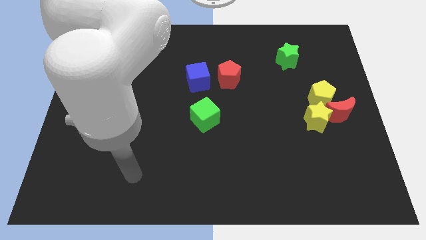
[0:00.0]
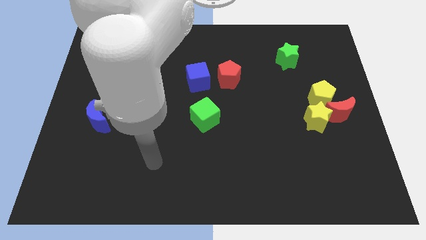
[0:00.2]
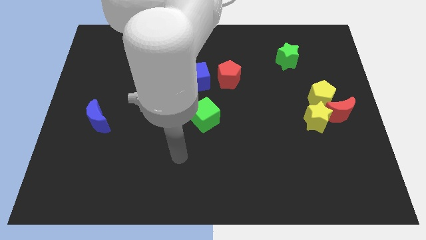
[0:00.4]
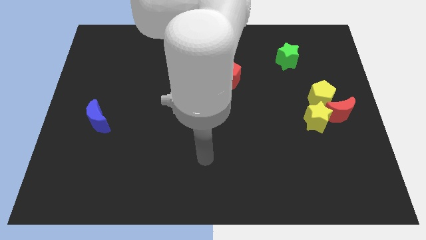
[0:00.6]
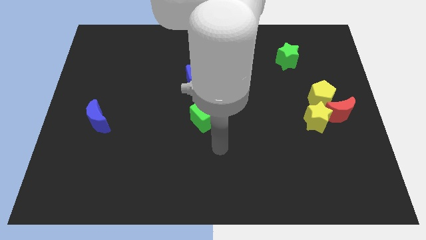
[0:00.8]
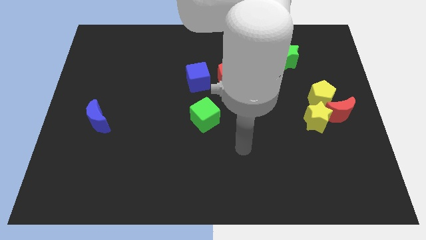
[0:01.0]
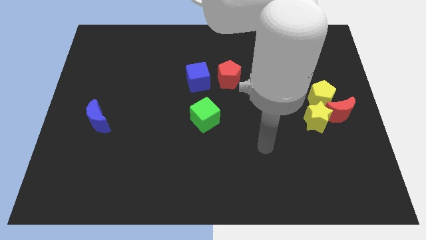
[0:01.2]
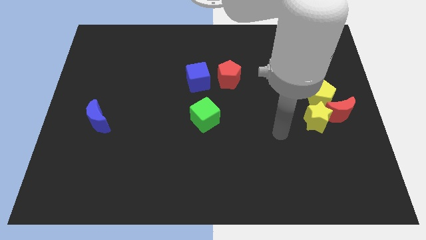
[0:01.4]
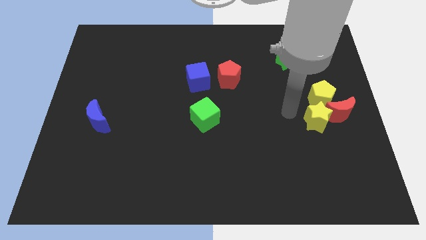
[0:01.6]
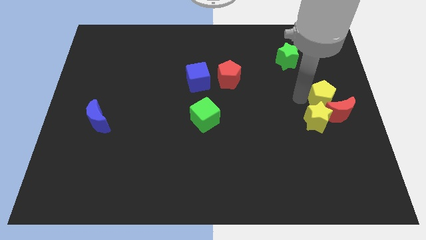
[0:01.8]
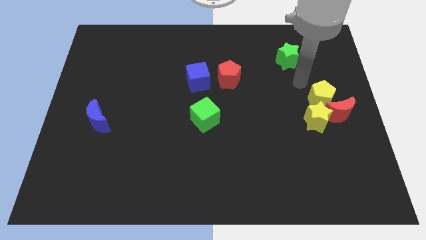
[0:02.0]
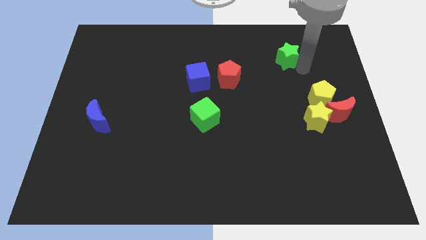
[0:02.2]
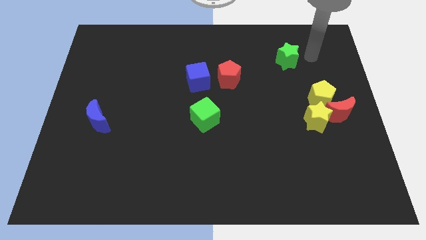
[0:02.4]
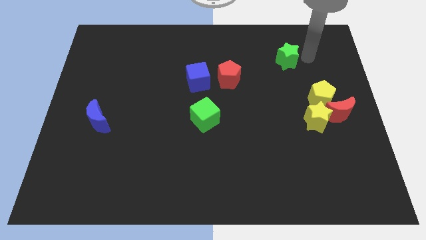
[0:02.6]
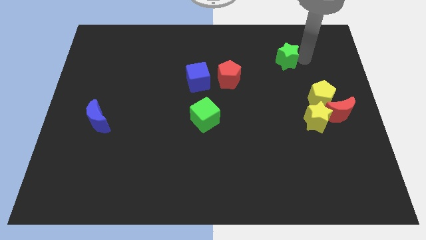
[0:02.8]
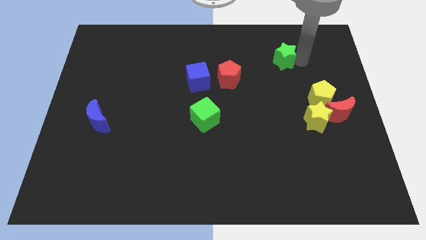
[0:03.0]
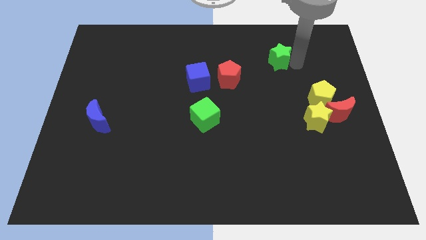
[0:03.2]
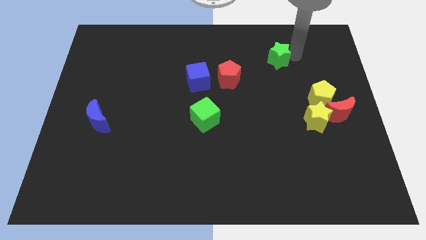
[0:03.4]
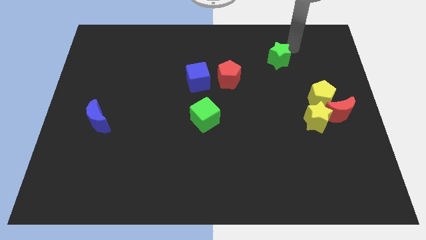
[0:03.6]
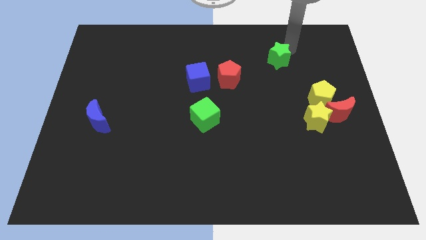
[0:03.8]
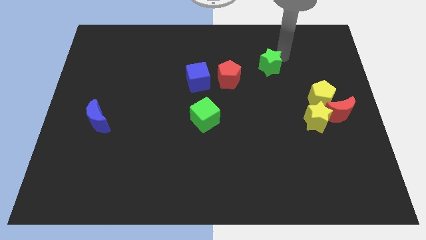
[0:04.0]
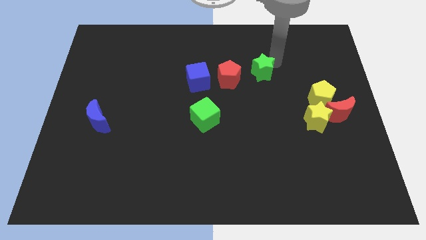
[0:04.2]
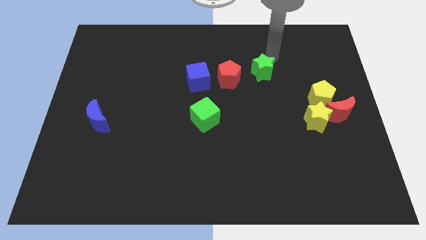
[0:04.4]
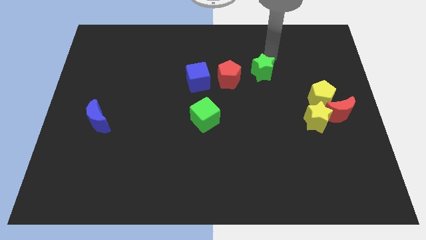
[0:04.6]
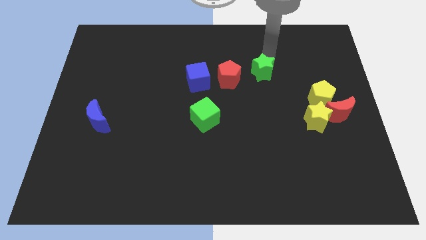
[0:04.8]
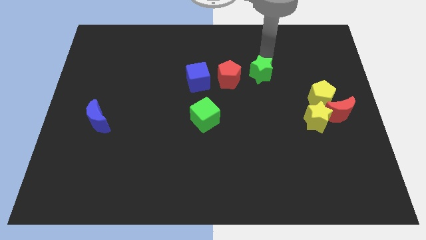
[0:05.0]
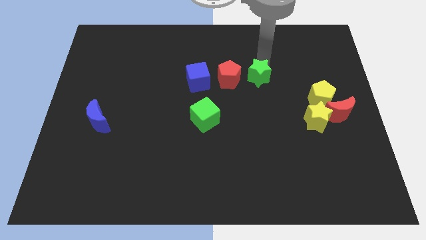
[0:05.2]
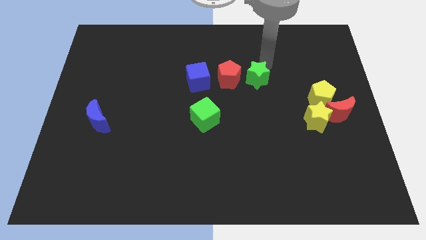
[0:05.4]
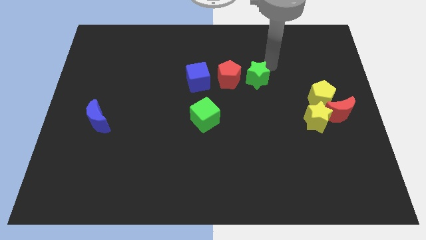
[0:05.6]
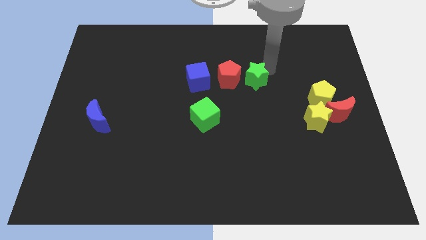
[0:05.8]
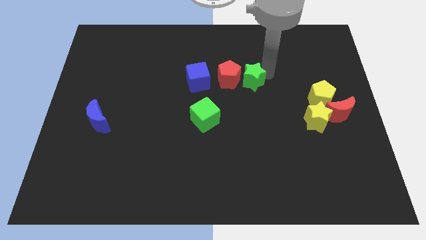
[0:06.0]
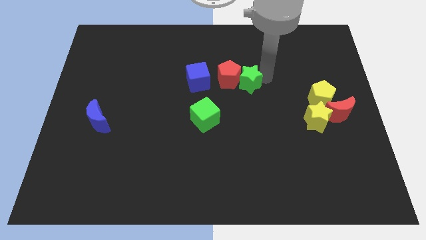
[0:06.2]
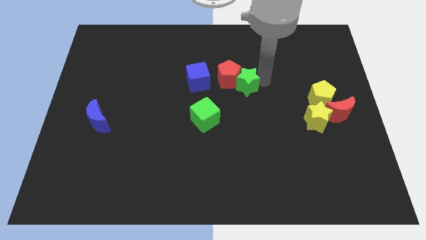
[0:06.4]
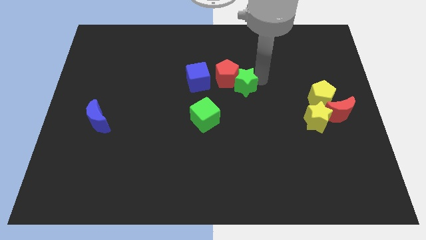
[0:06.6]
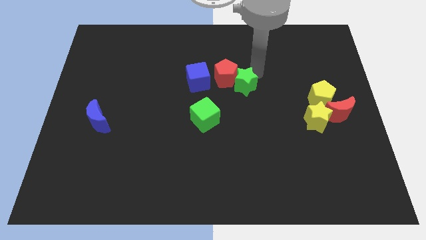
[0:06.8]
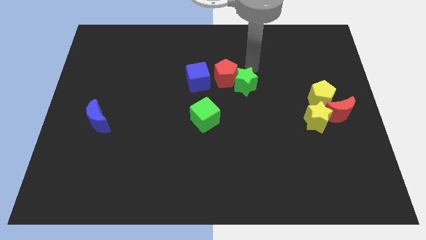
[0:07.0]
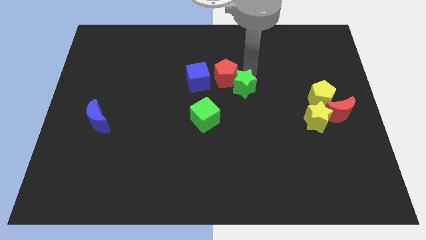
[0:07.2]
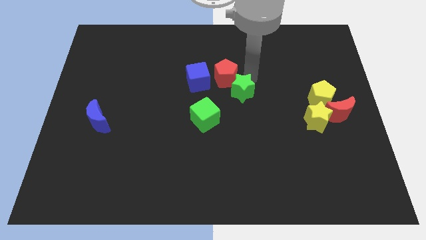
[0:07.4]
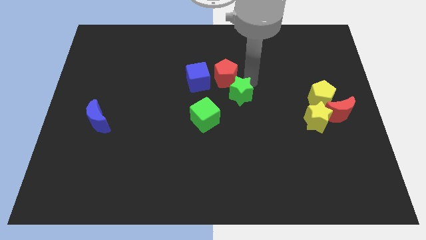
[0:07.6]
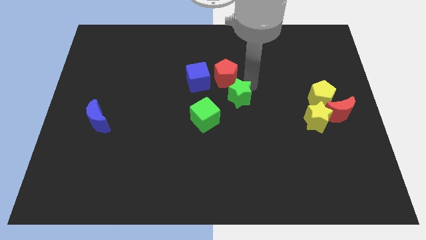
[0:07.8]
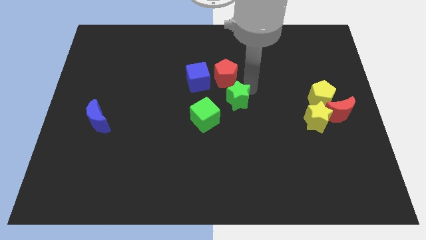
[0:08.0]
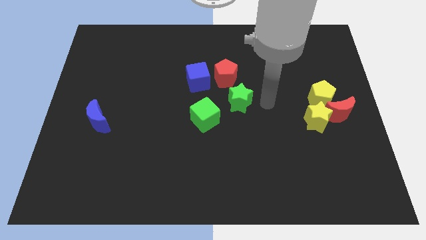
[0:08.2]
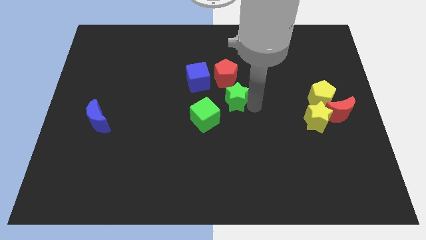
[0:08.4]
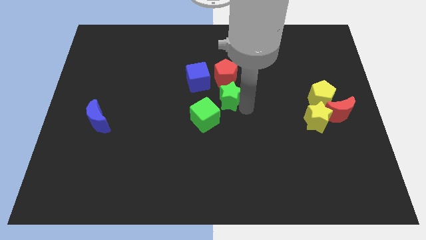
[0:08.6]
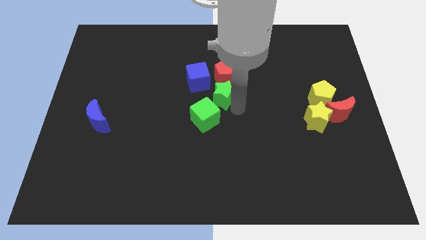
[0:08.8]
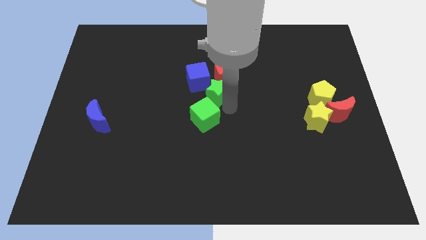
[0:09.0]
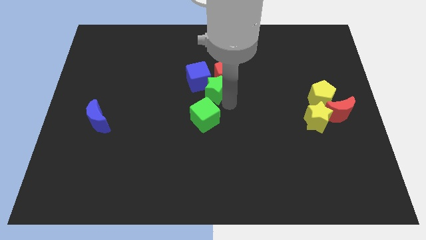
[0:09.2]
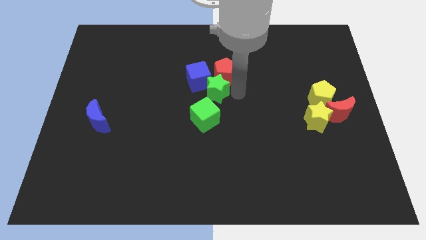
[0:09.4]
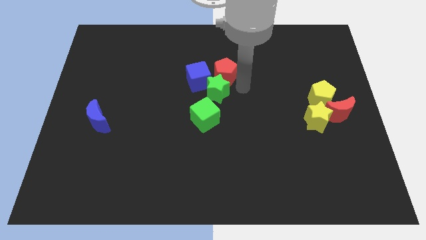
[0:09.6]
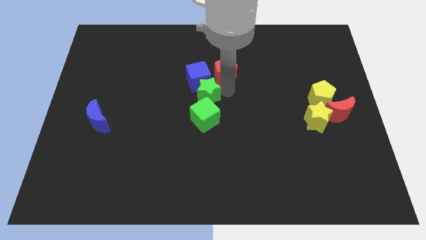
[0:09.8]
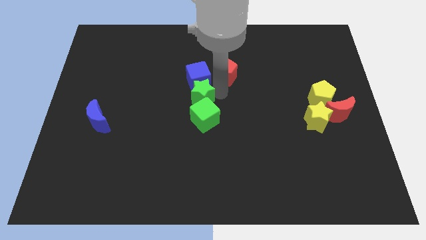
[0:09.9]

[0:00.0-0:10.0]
push the green star to the top left of the green cube

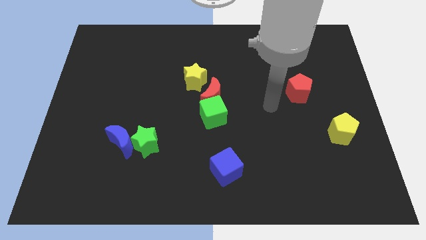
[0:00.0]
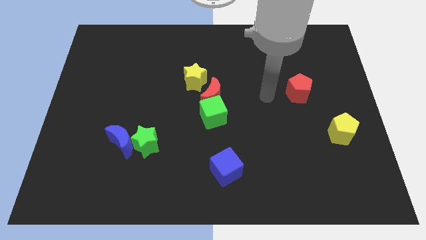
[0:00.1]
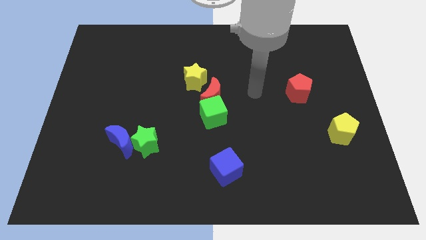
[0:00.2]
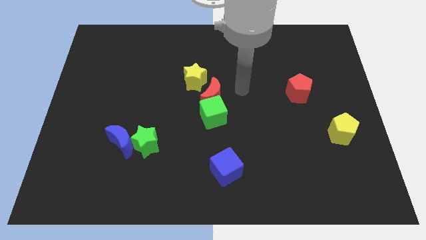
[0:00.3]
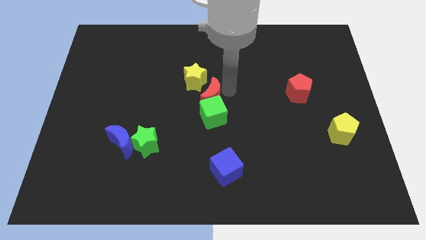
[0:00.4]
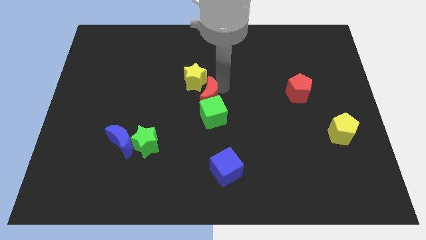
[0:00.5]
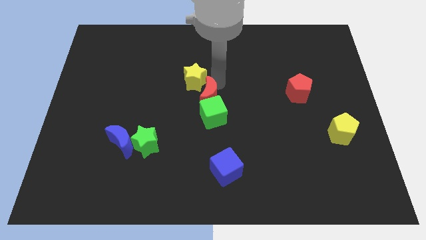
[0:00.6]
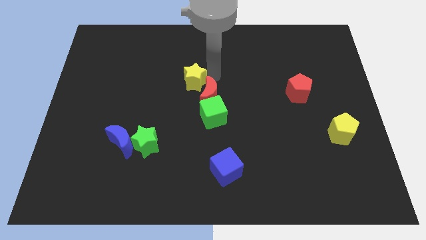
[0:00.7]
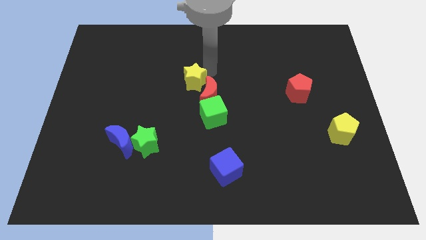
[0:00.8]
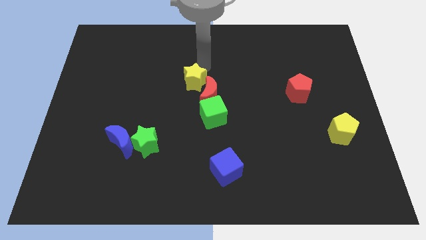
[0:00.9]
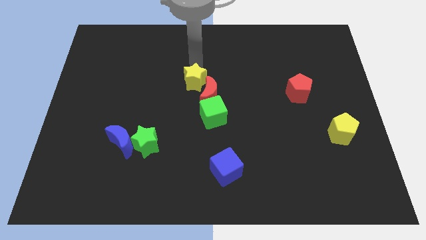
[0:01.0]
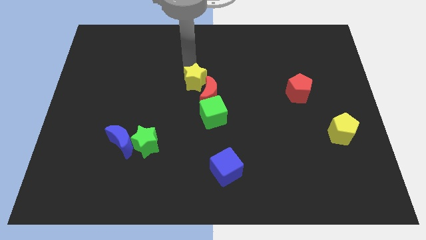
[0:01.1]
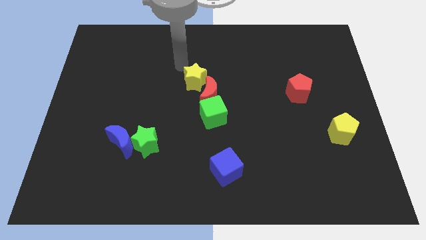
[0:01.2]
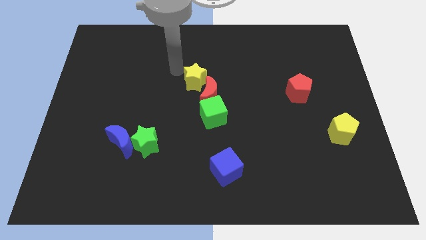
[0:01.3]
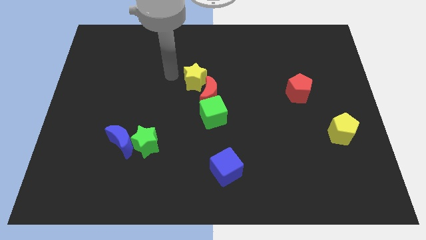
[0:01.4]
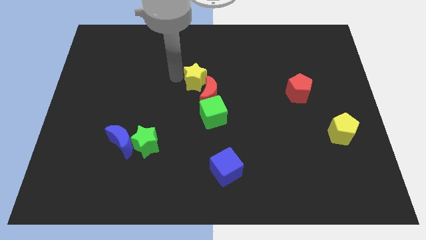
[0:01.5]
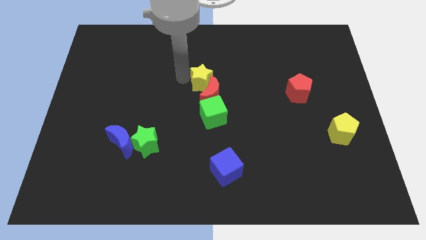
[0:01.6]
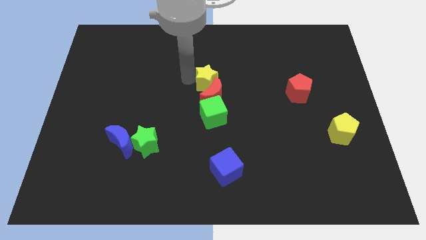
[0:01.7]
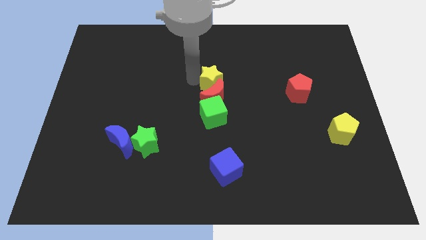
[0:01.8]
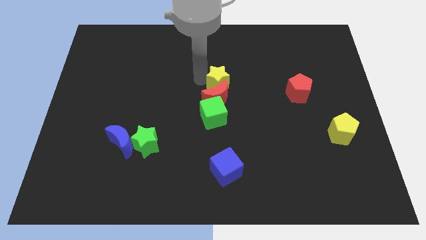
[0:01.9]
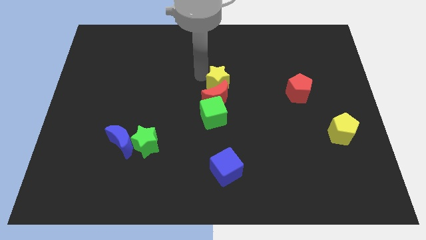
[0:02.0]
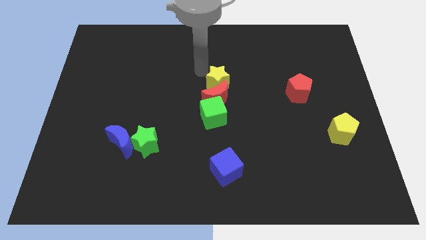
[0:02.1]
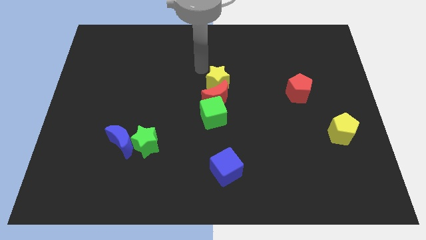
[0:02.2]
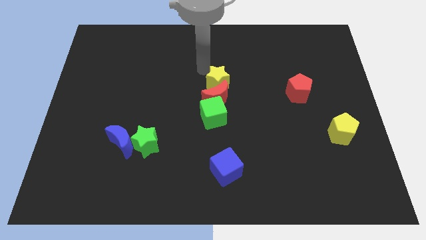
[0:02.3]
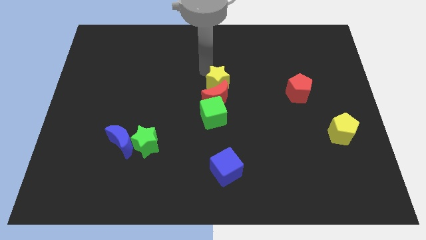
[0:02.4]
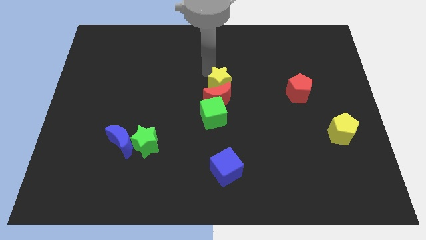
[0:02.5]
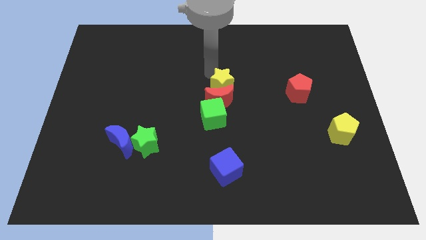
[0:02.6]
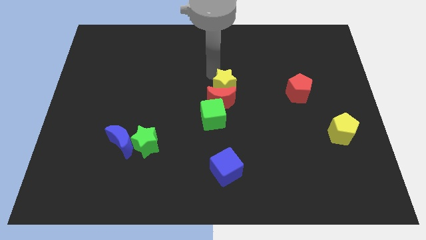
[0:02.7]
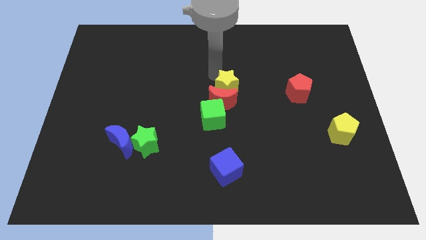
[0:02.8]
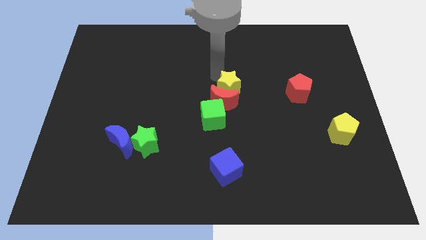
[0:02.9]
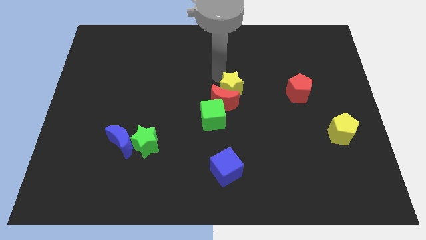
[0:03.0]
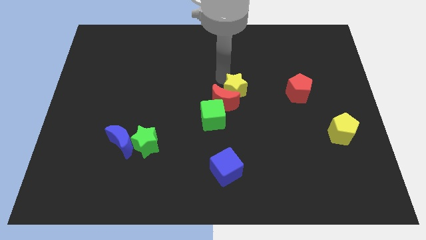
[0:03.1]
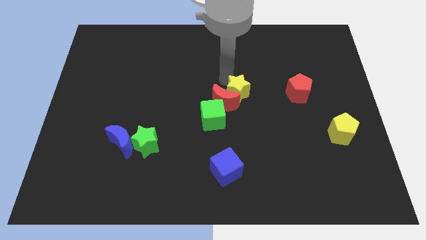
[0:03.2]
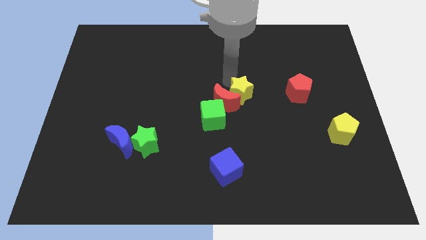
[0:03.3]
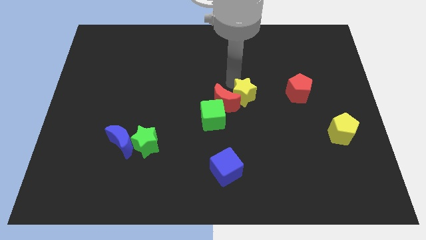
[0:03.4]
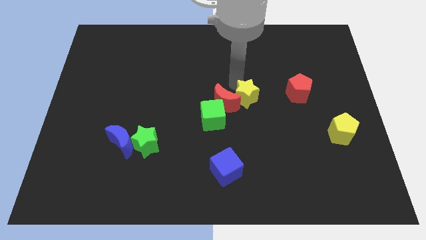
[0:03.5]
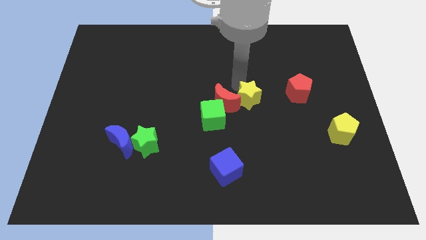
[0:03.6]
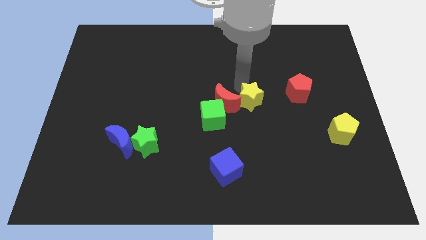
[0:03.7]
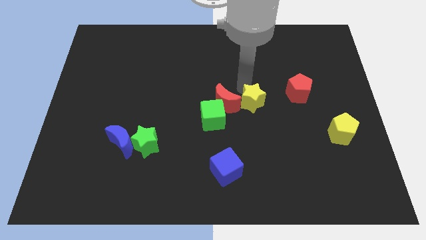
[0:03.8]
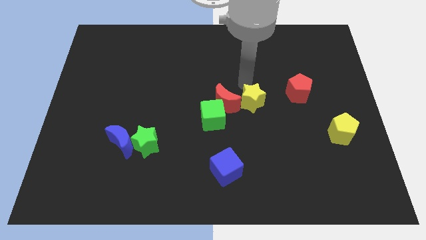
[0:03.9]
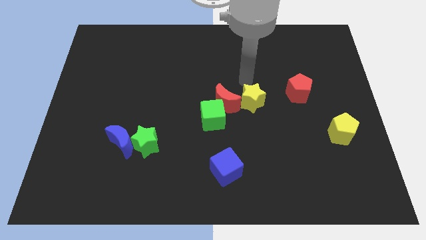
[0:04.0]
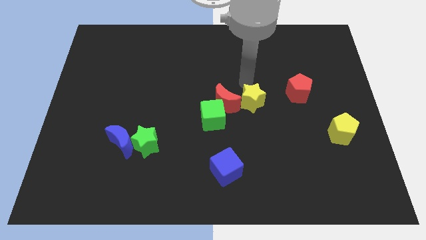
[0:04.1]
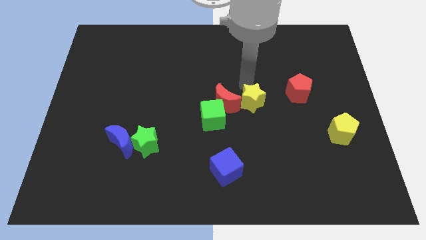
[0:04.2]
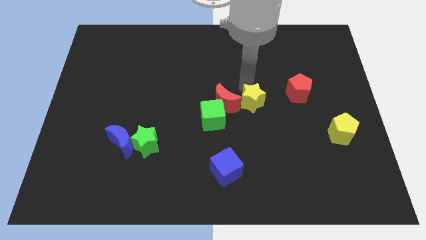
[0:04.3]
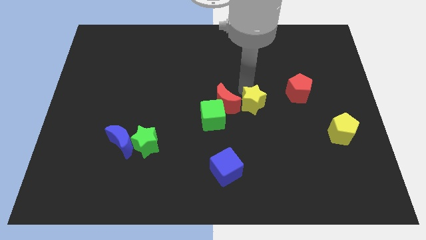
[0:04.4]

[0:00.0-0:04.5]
push the yellow star to the right of the green cube
